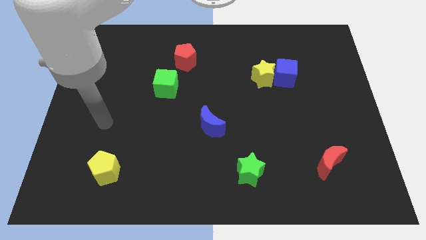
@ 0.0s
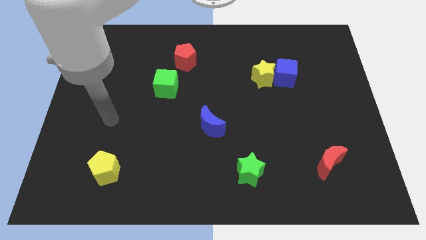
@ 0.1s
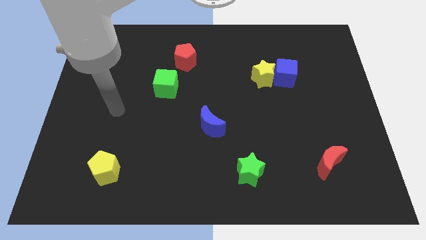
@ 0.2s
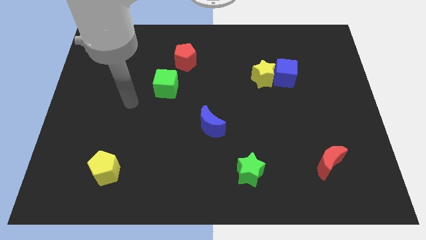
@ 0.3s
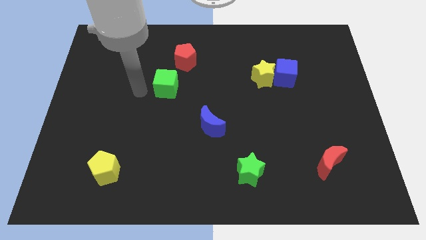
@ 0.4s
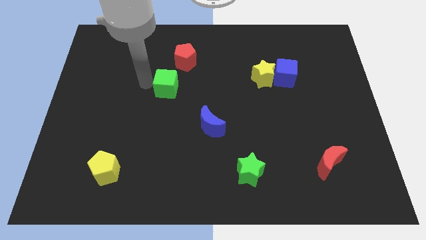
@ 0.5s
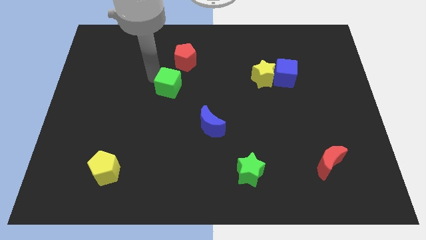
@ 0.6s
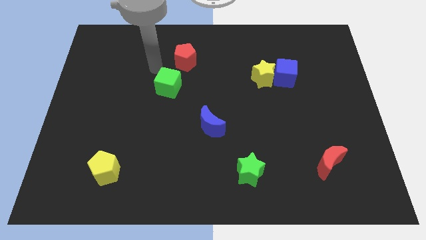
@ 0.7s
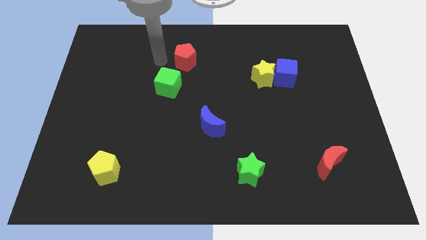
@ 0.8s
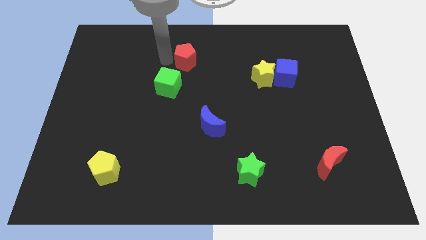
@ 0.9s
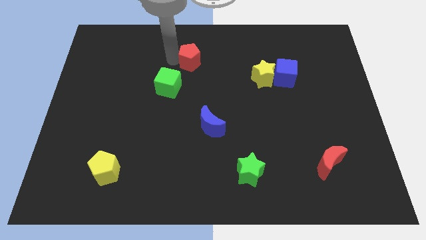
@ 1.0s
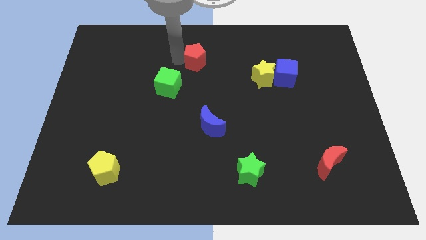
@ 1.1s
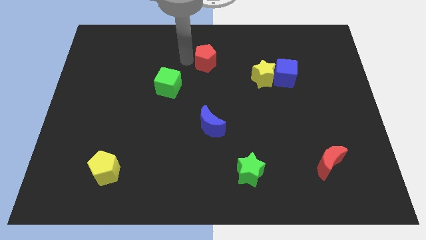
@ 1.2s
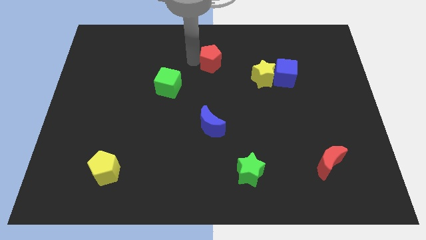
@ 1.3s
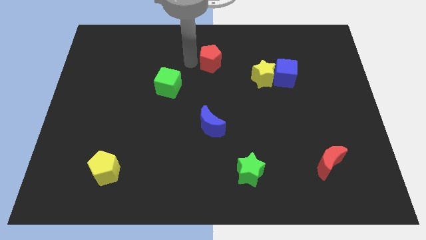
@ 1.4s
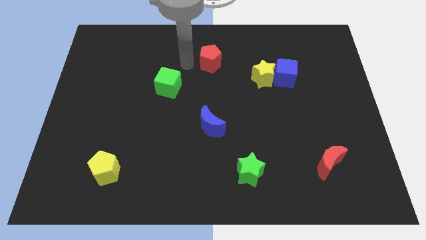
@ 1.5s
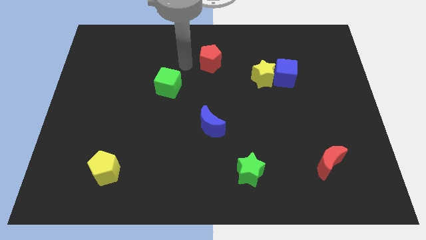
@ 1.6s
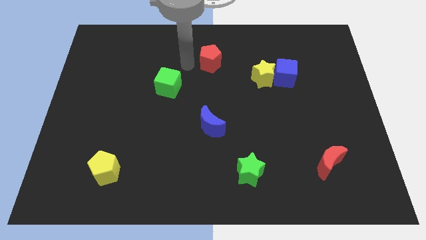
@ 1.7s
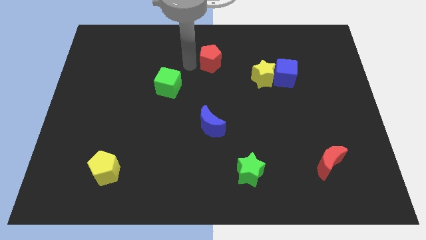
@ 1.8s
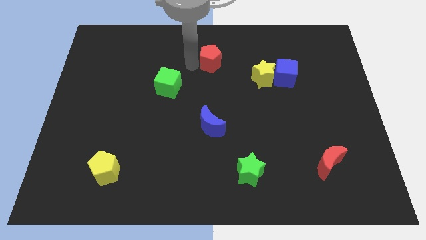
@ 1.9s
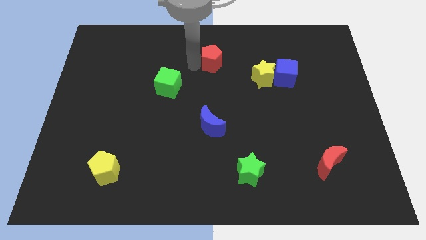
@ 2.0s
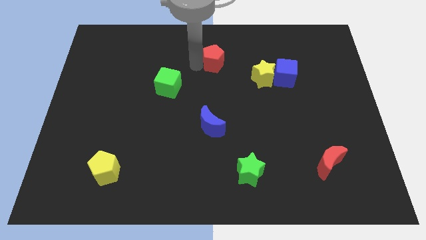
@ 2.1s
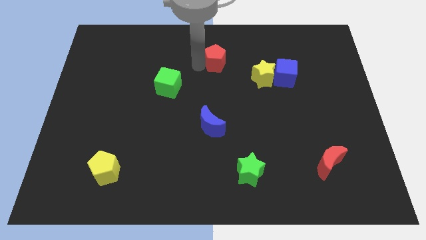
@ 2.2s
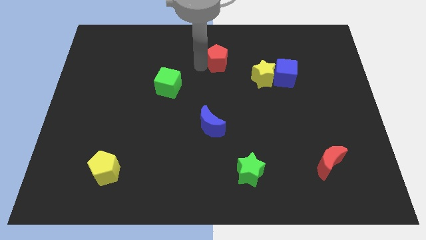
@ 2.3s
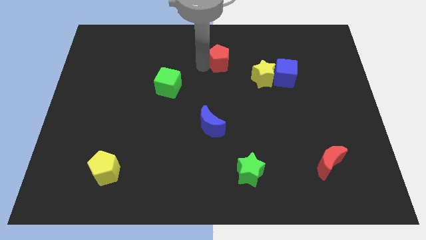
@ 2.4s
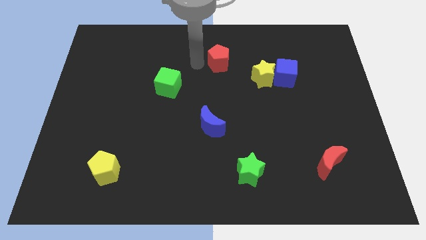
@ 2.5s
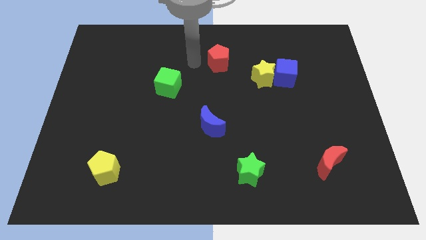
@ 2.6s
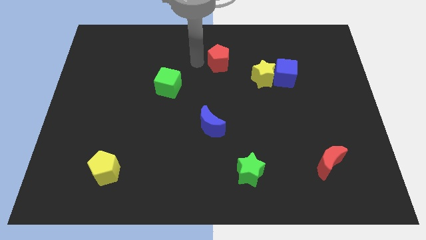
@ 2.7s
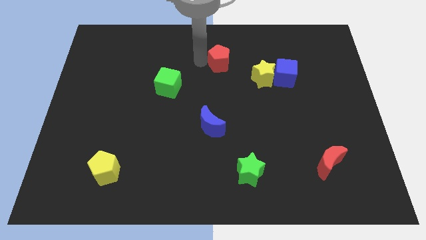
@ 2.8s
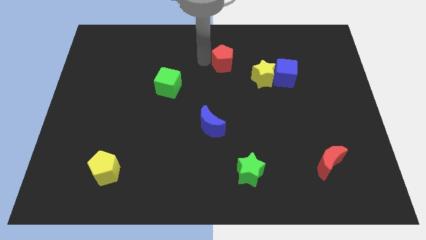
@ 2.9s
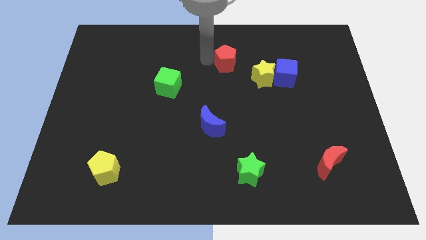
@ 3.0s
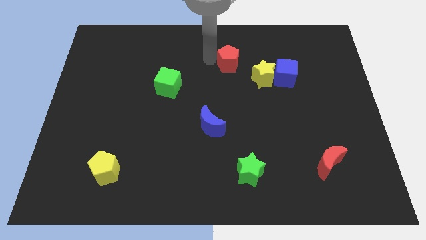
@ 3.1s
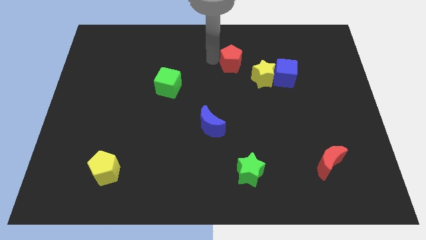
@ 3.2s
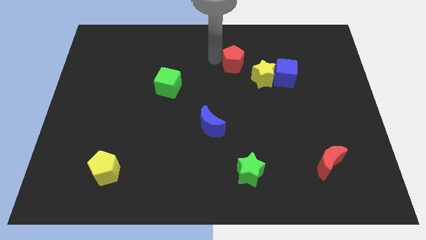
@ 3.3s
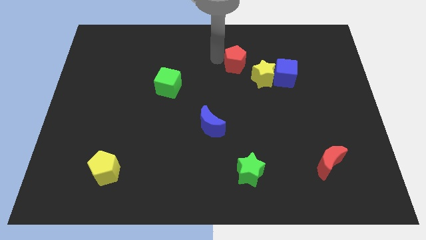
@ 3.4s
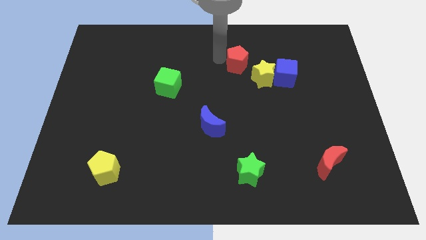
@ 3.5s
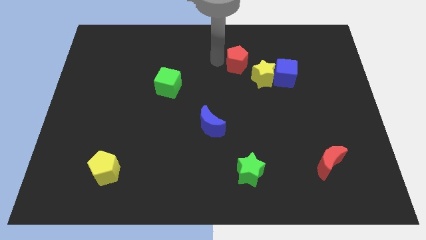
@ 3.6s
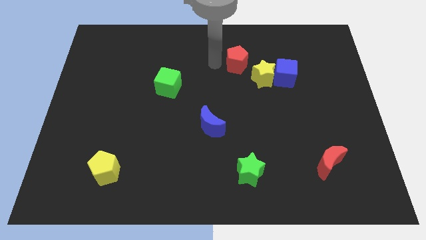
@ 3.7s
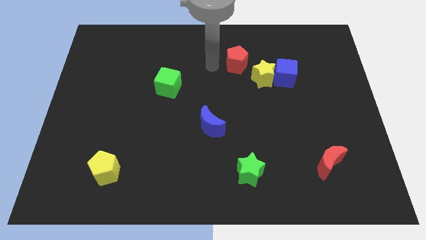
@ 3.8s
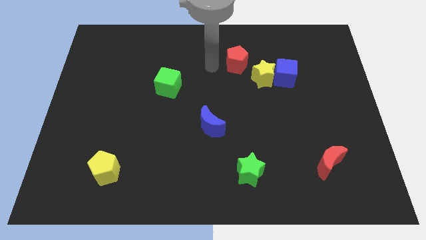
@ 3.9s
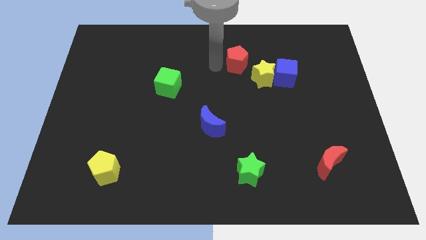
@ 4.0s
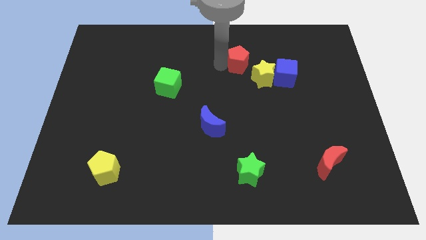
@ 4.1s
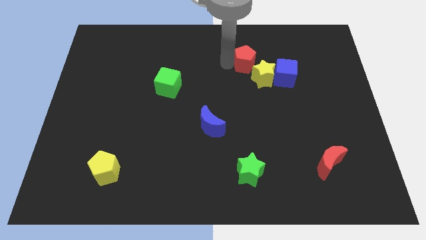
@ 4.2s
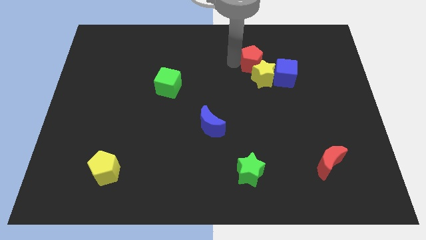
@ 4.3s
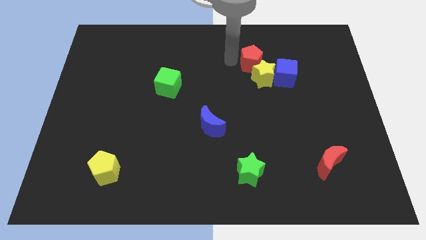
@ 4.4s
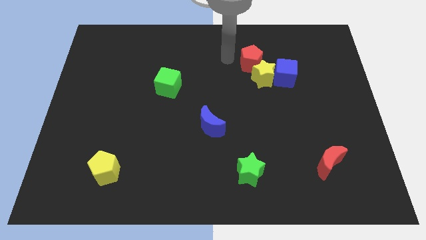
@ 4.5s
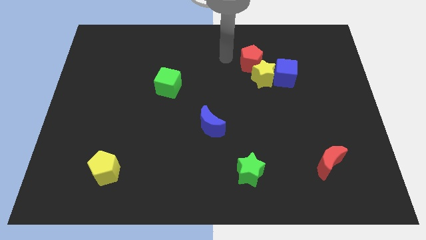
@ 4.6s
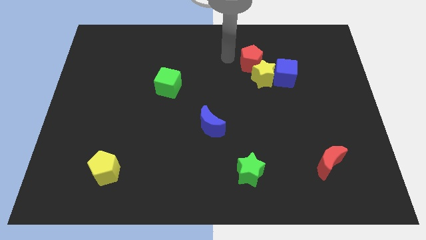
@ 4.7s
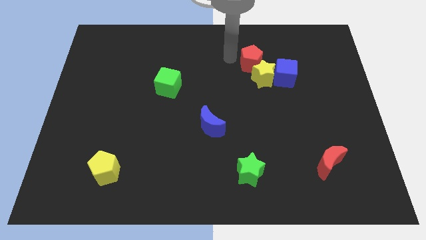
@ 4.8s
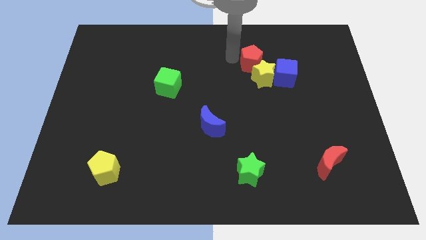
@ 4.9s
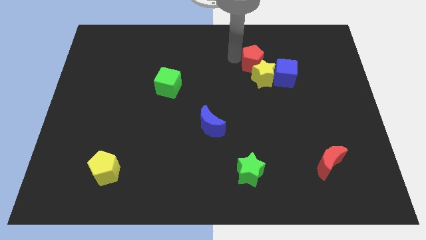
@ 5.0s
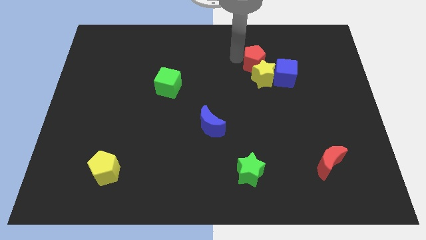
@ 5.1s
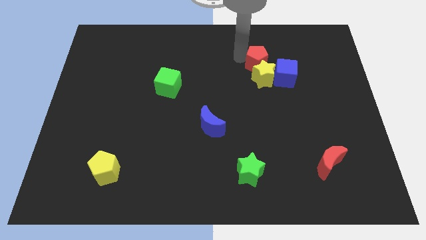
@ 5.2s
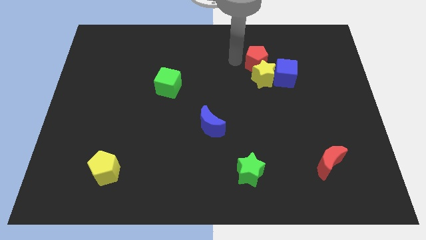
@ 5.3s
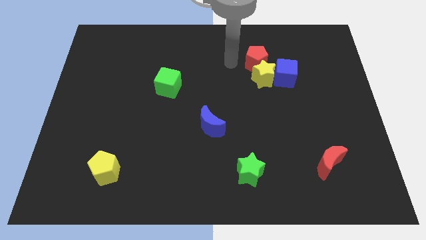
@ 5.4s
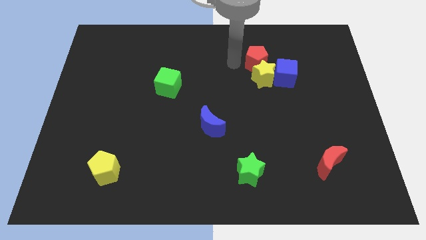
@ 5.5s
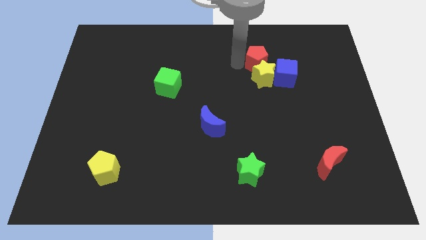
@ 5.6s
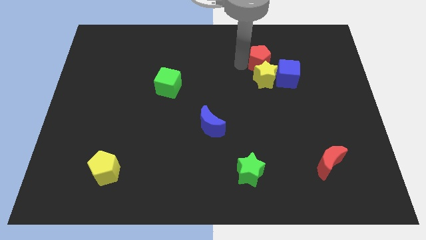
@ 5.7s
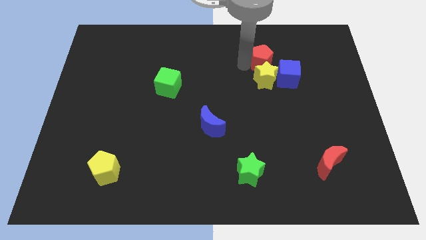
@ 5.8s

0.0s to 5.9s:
push the red pentagon right

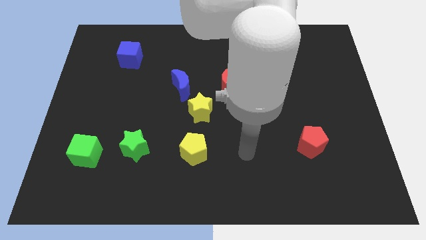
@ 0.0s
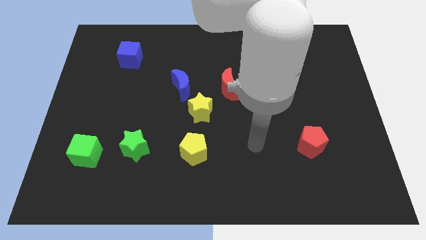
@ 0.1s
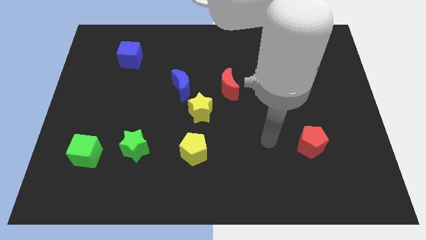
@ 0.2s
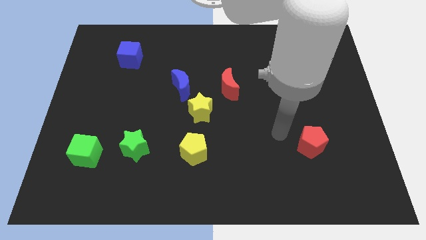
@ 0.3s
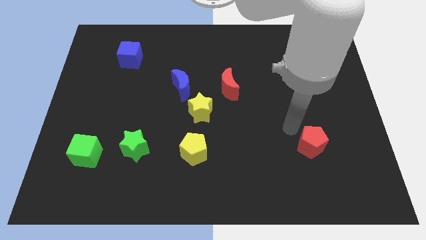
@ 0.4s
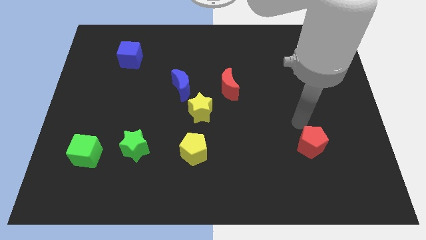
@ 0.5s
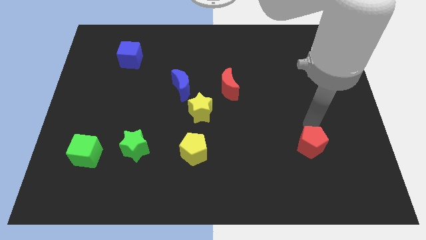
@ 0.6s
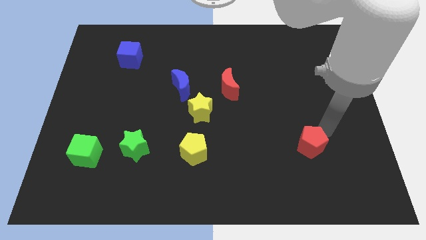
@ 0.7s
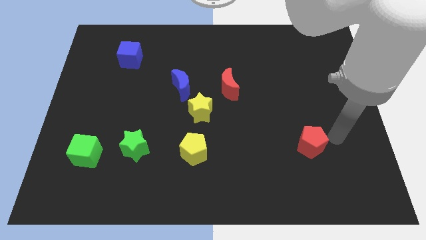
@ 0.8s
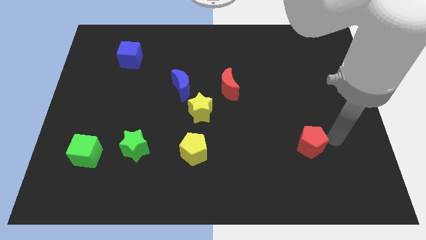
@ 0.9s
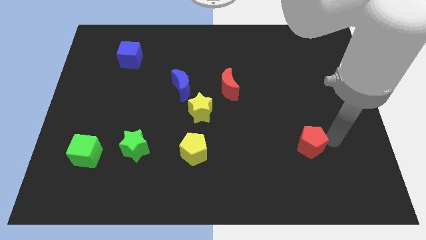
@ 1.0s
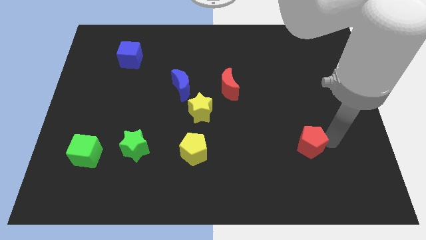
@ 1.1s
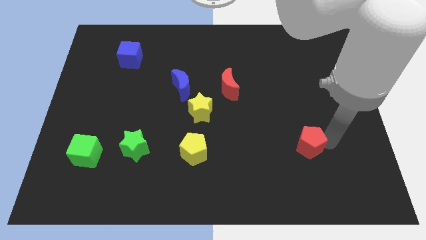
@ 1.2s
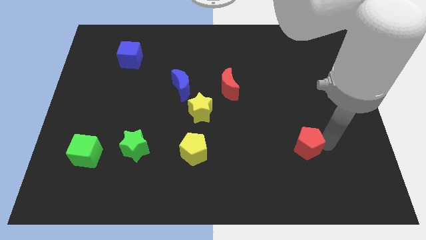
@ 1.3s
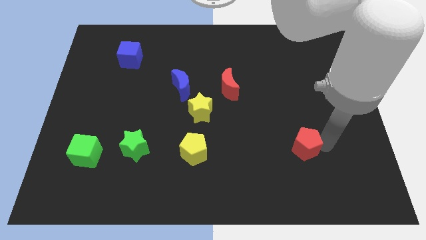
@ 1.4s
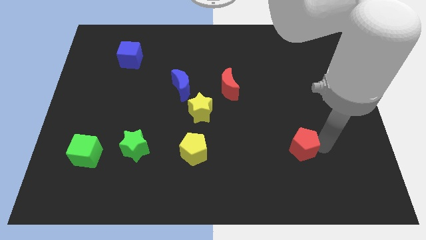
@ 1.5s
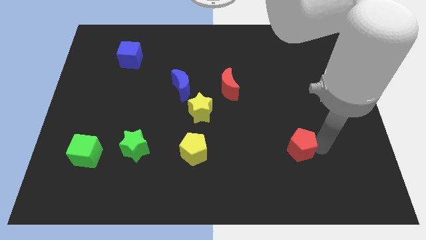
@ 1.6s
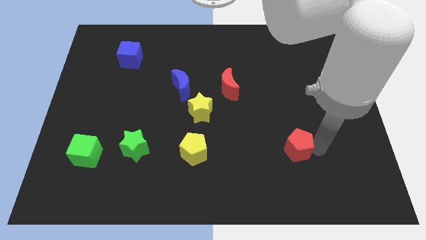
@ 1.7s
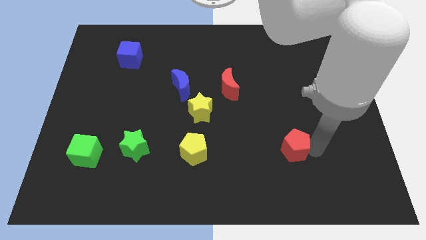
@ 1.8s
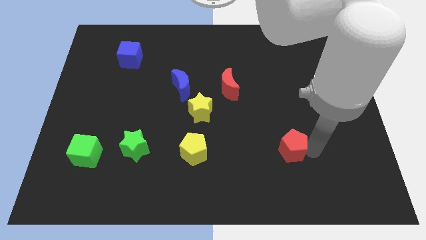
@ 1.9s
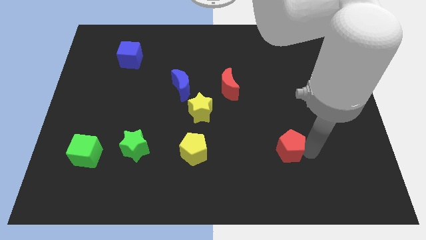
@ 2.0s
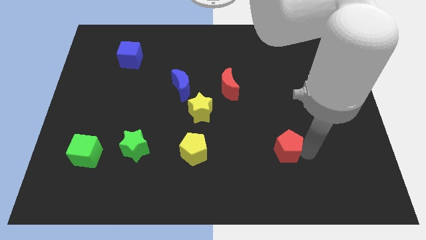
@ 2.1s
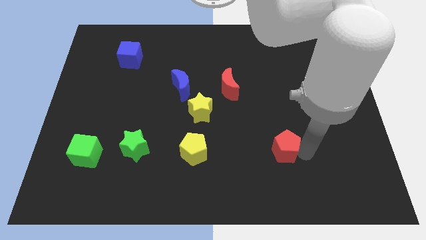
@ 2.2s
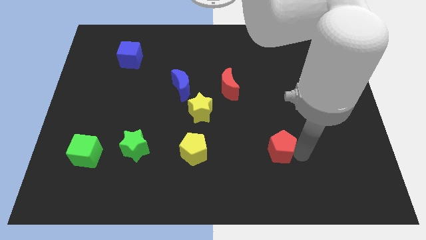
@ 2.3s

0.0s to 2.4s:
move the red pentagon somewhat left
